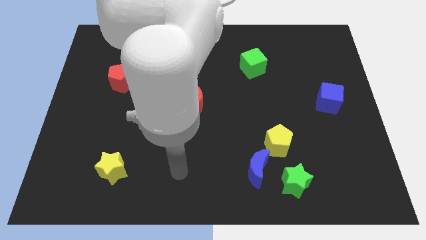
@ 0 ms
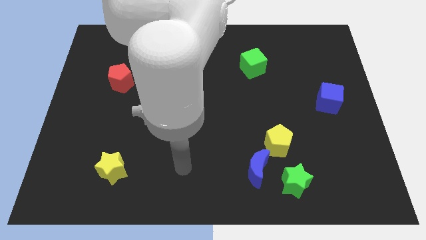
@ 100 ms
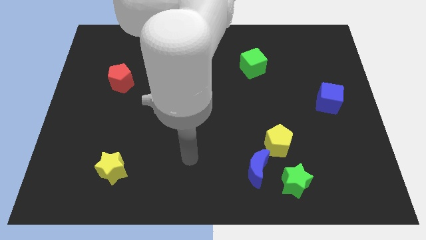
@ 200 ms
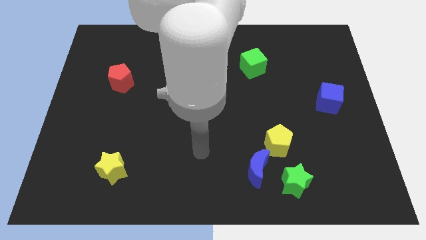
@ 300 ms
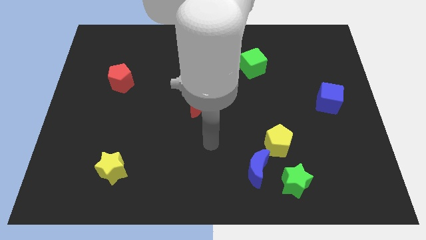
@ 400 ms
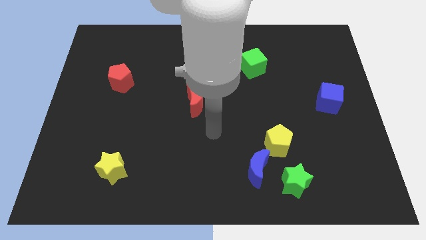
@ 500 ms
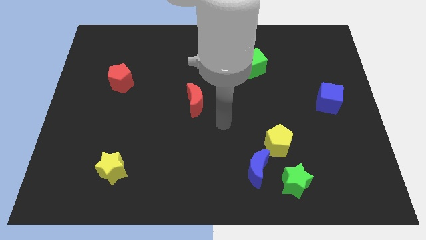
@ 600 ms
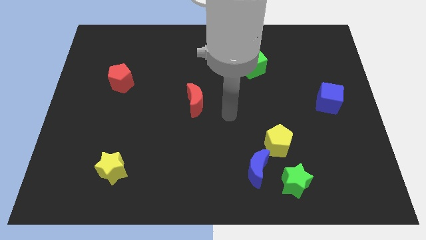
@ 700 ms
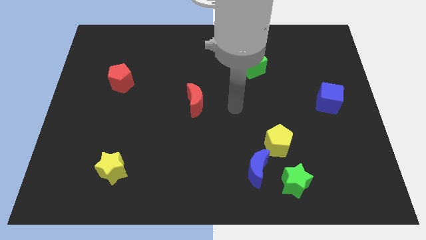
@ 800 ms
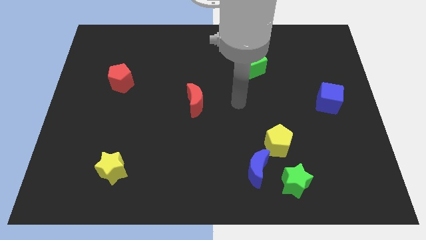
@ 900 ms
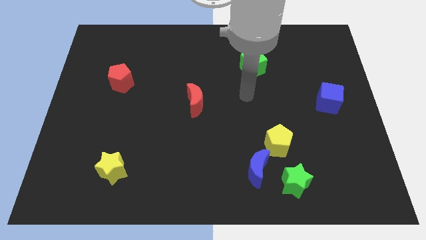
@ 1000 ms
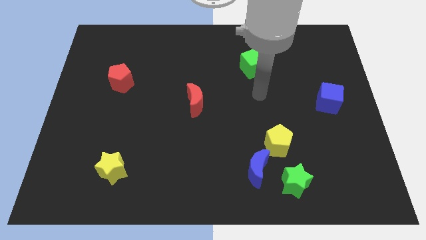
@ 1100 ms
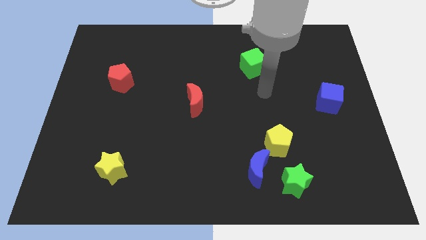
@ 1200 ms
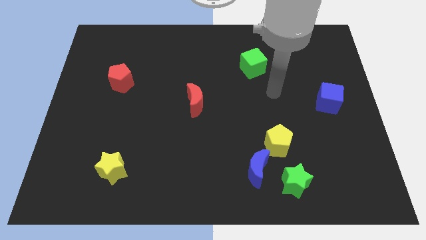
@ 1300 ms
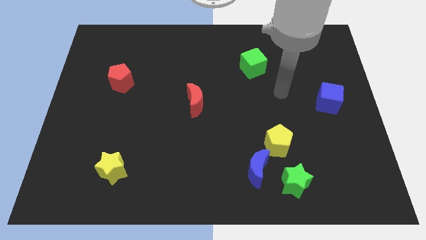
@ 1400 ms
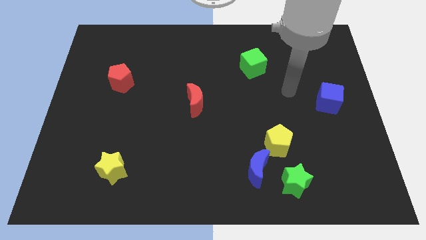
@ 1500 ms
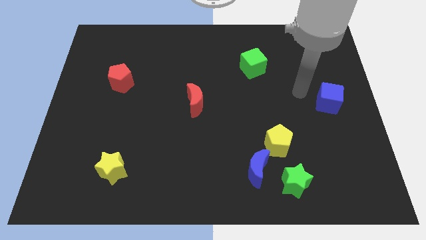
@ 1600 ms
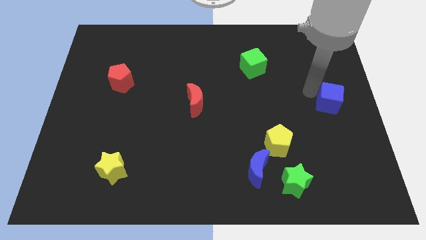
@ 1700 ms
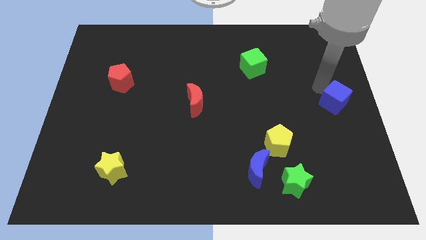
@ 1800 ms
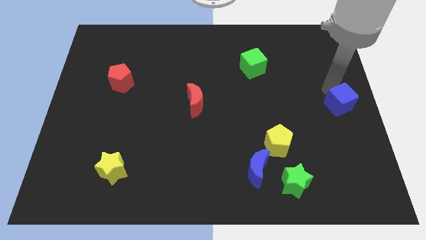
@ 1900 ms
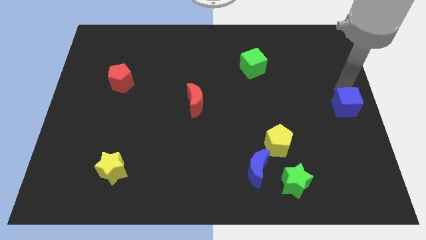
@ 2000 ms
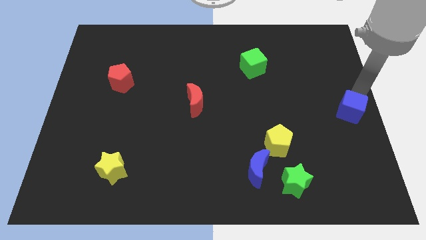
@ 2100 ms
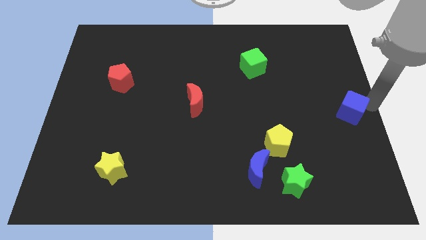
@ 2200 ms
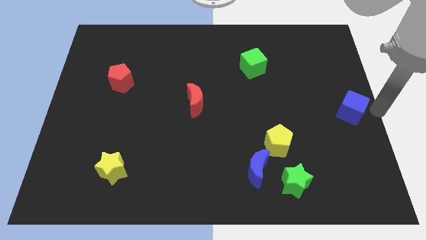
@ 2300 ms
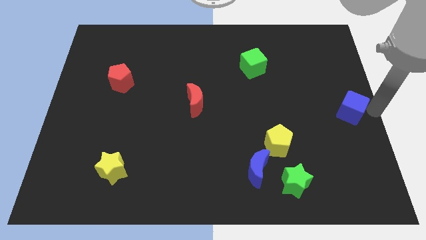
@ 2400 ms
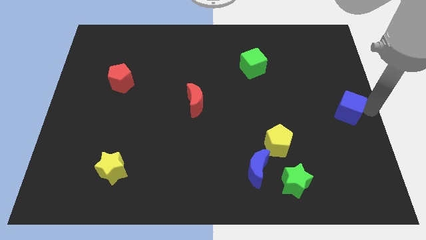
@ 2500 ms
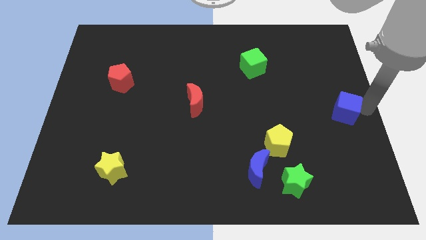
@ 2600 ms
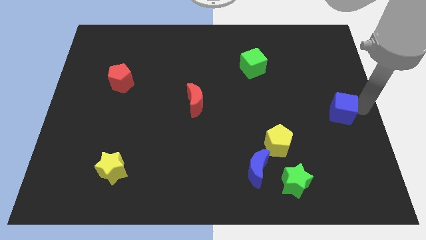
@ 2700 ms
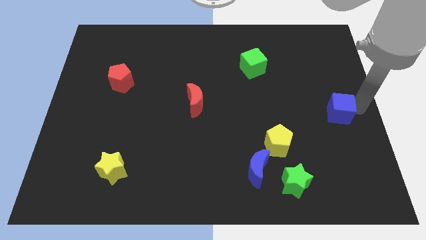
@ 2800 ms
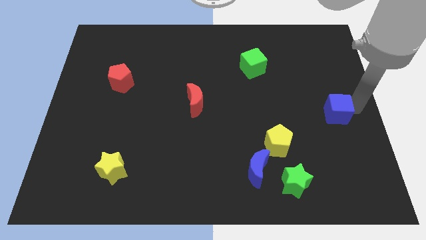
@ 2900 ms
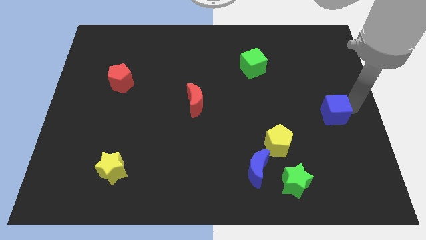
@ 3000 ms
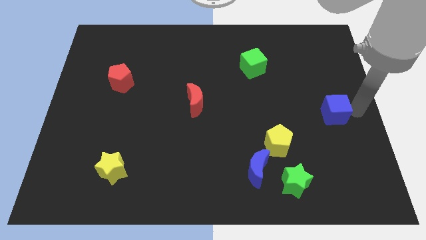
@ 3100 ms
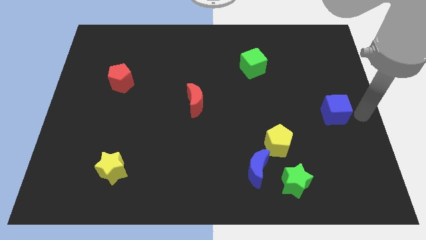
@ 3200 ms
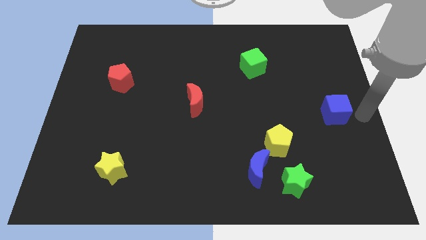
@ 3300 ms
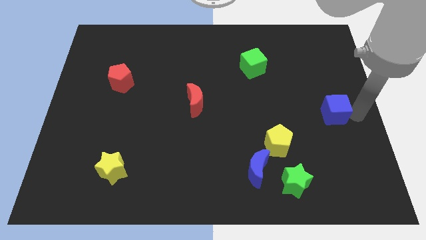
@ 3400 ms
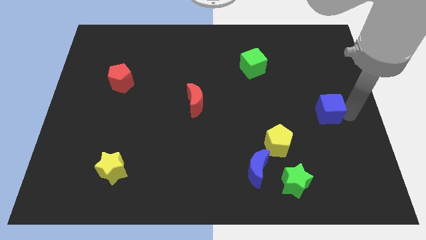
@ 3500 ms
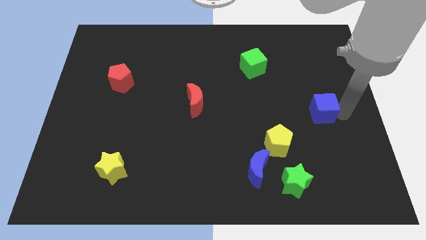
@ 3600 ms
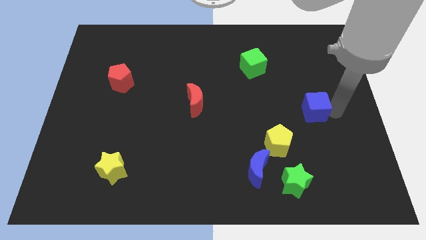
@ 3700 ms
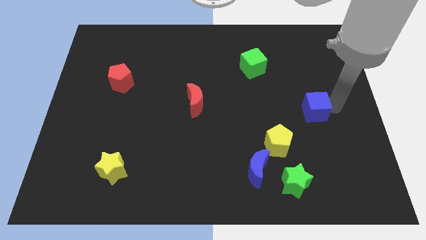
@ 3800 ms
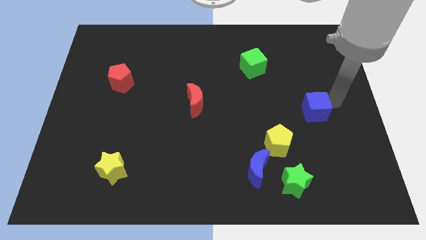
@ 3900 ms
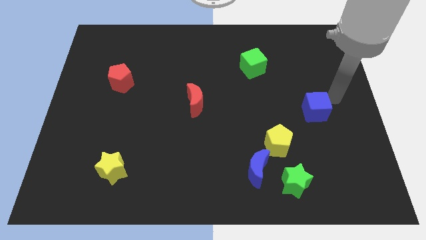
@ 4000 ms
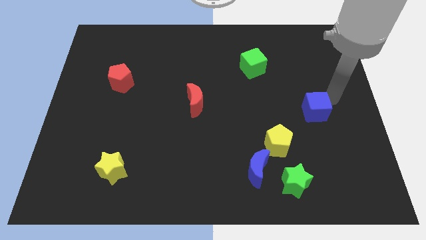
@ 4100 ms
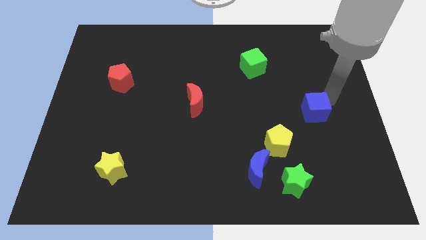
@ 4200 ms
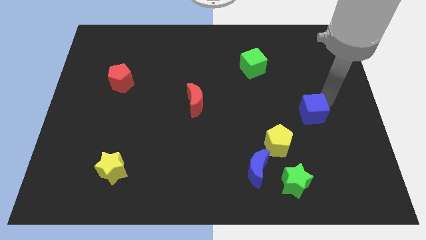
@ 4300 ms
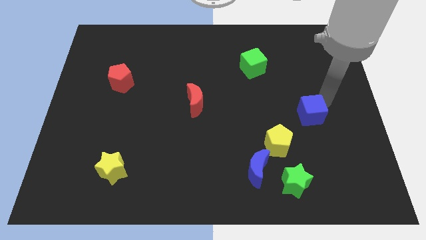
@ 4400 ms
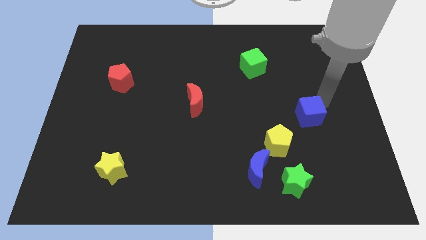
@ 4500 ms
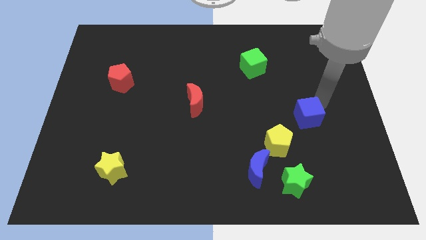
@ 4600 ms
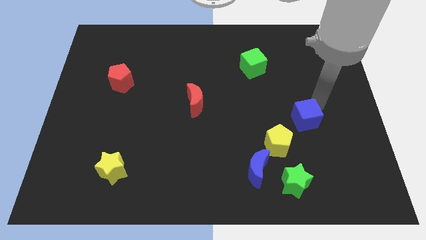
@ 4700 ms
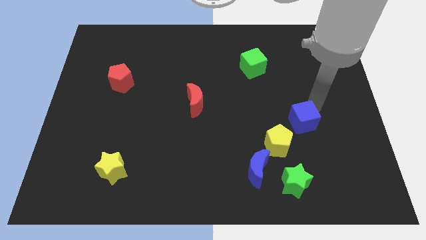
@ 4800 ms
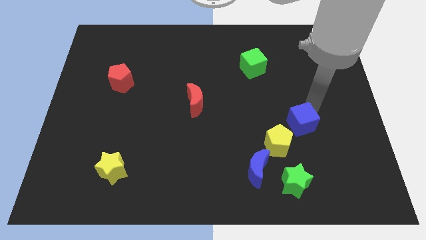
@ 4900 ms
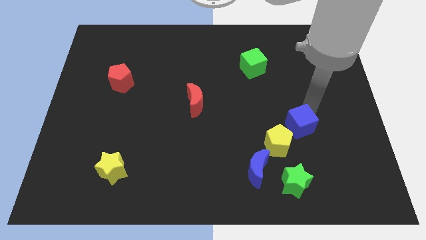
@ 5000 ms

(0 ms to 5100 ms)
slide the blue cube to the top of the green star

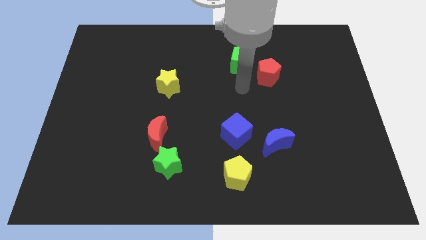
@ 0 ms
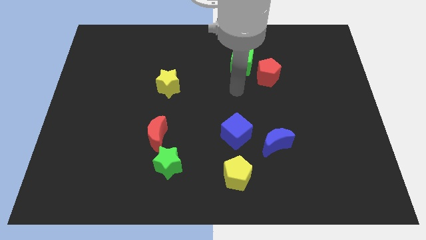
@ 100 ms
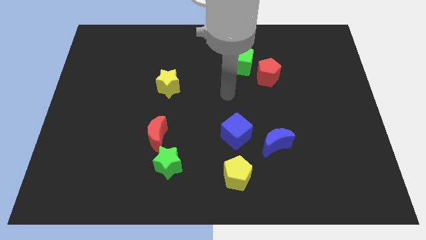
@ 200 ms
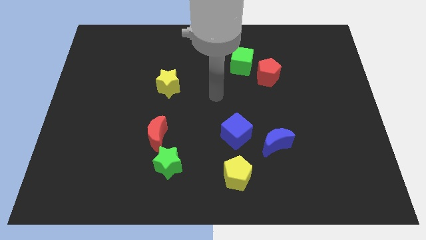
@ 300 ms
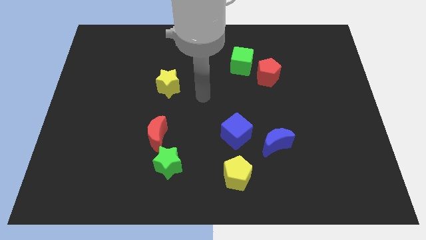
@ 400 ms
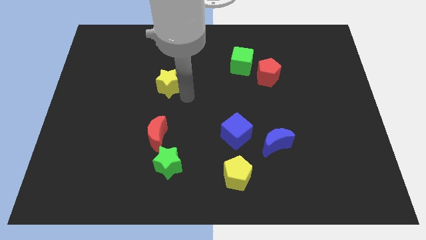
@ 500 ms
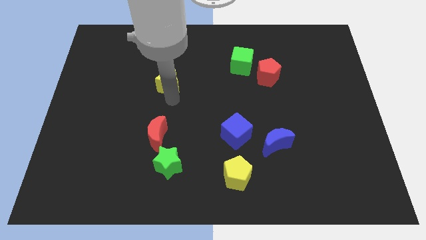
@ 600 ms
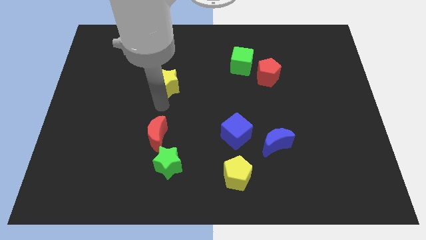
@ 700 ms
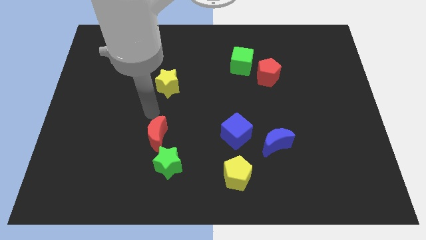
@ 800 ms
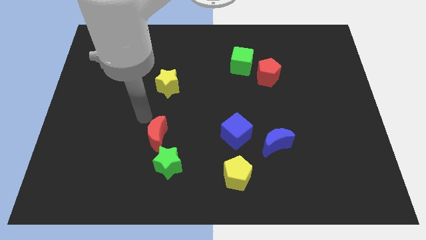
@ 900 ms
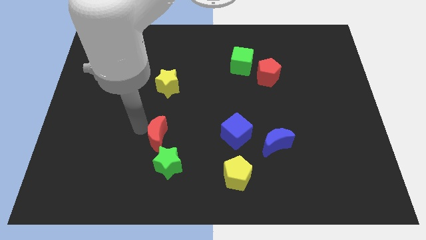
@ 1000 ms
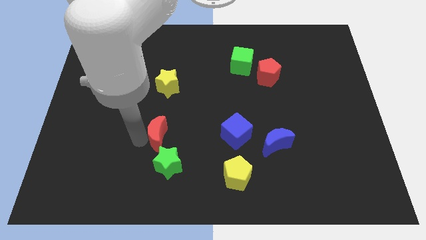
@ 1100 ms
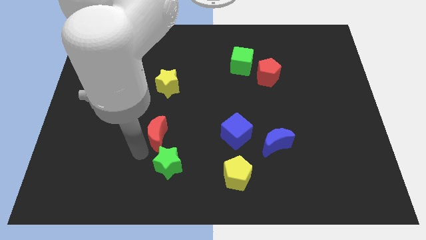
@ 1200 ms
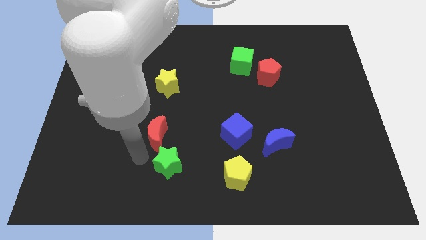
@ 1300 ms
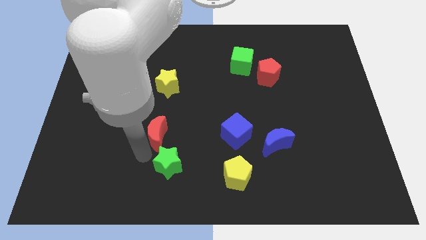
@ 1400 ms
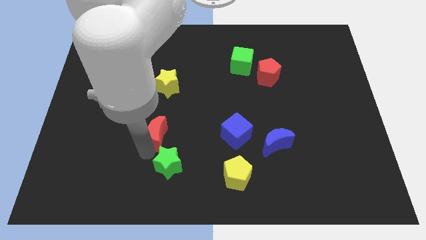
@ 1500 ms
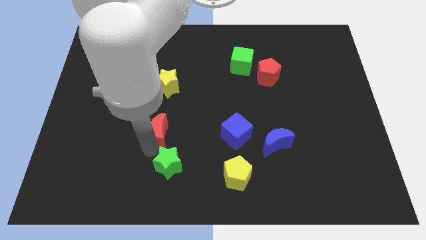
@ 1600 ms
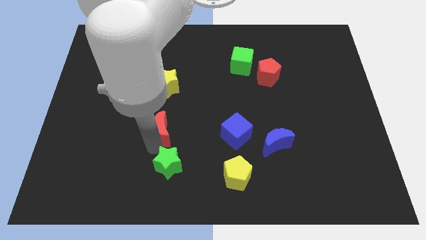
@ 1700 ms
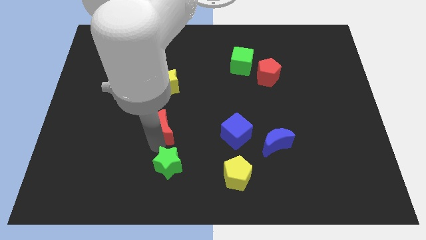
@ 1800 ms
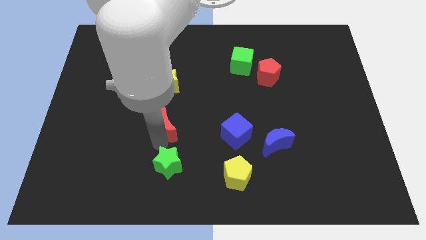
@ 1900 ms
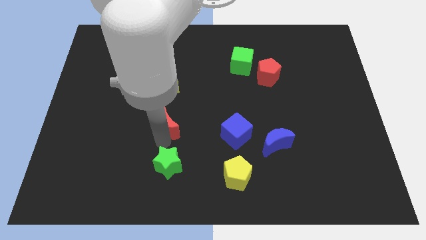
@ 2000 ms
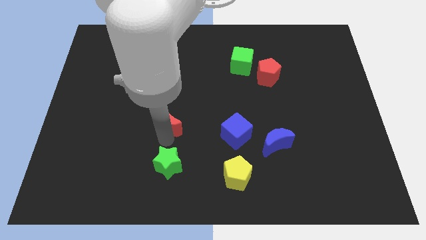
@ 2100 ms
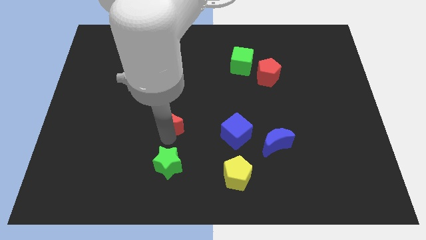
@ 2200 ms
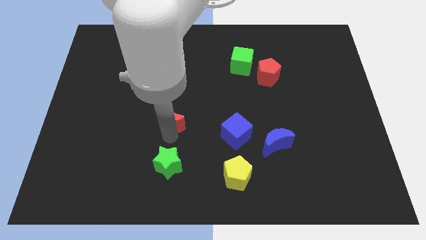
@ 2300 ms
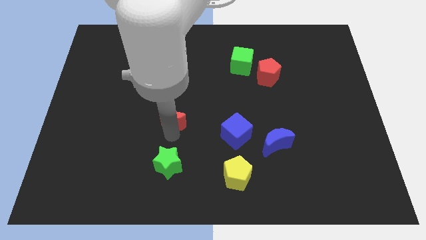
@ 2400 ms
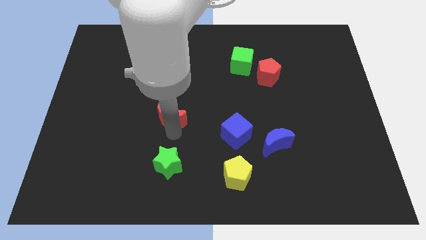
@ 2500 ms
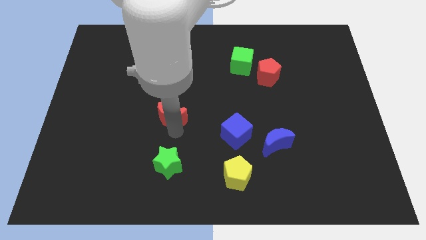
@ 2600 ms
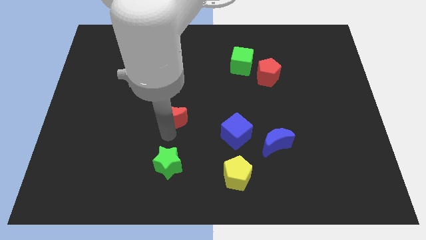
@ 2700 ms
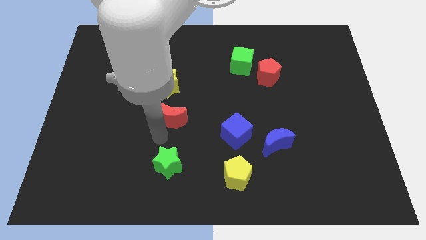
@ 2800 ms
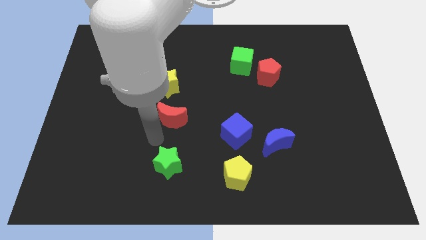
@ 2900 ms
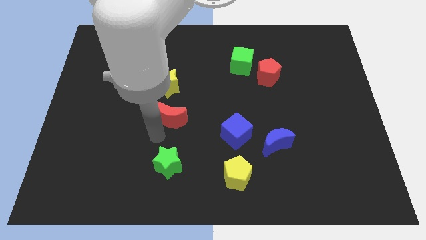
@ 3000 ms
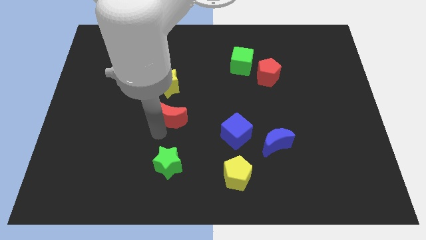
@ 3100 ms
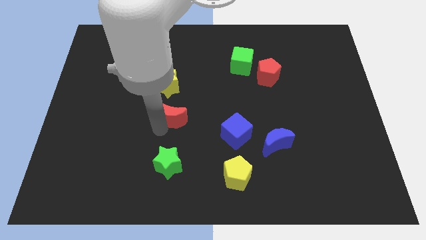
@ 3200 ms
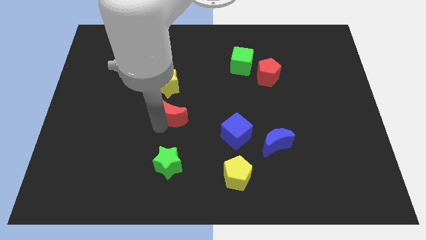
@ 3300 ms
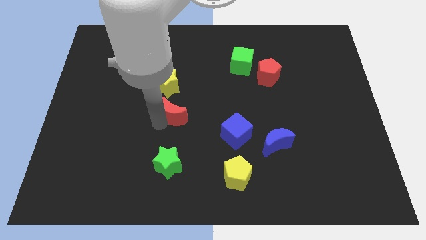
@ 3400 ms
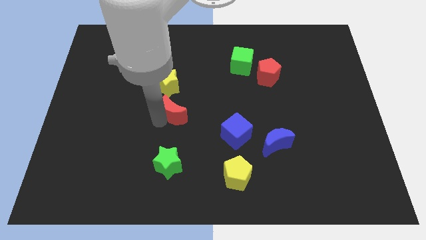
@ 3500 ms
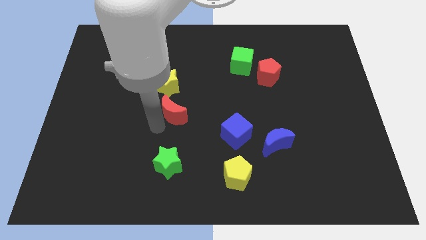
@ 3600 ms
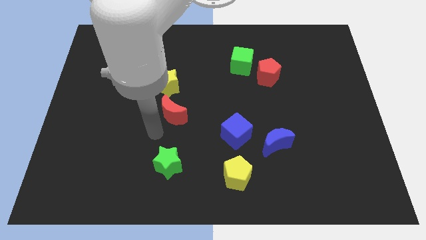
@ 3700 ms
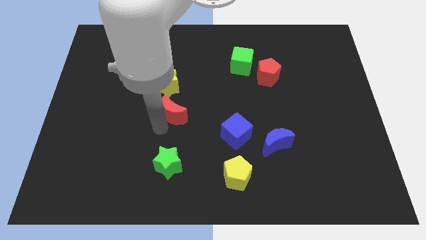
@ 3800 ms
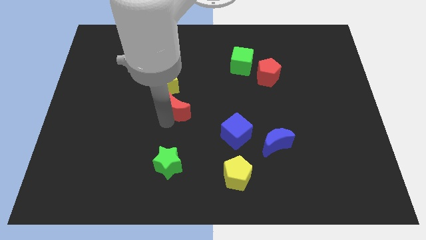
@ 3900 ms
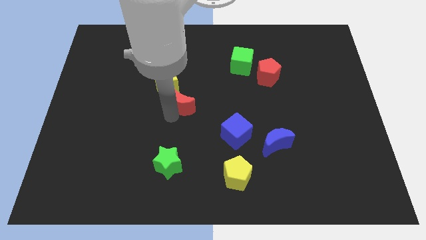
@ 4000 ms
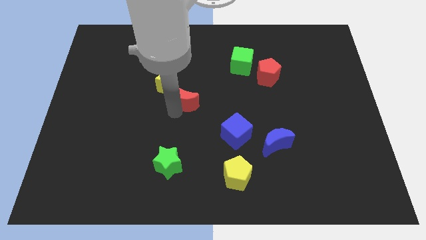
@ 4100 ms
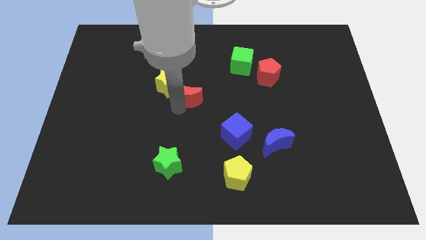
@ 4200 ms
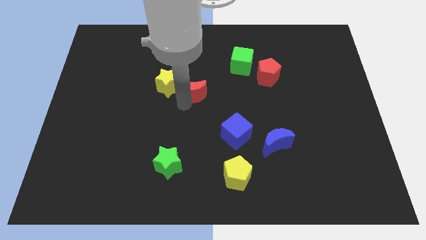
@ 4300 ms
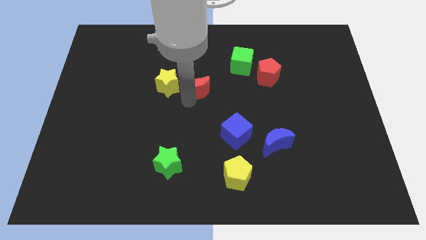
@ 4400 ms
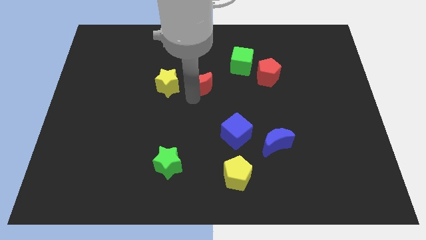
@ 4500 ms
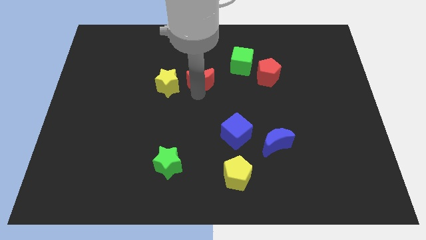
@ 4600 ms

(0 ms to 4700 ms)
move the red moon to the top right of the yellow star
